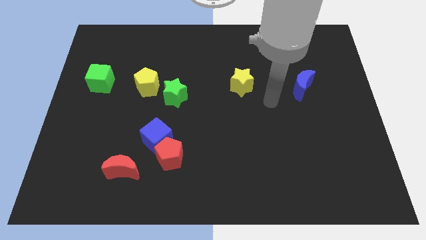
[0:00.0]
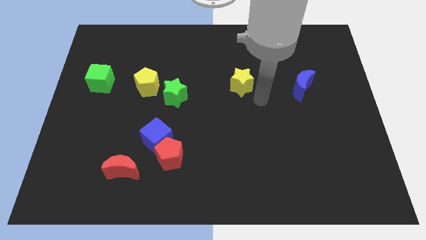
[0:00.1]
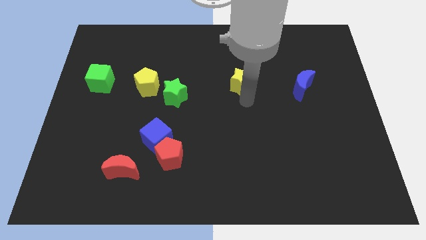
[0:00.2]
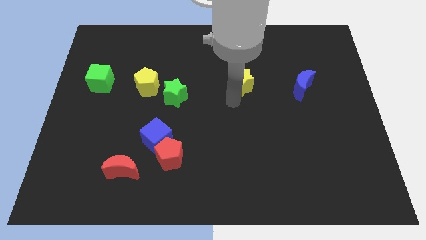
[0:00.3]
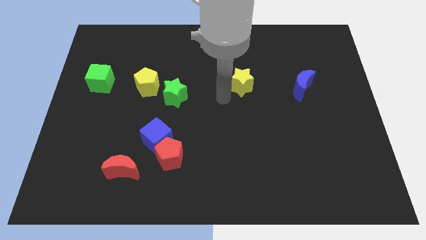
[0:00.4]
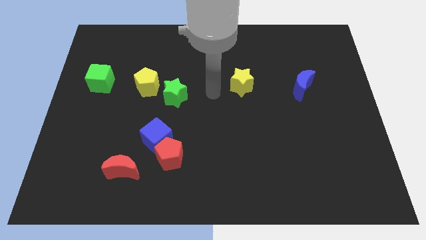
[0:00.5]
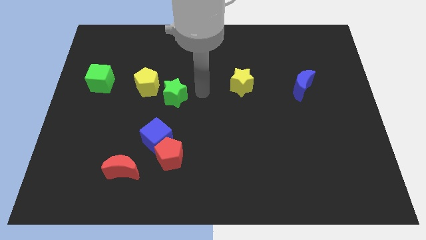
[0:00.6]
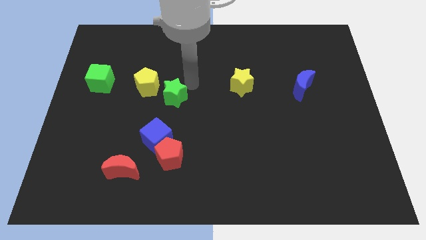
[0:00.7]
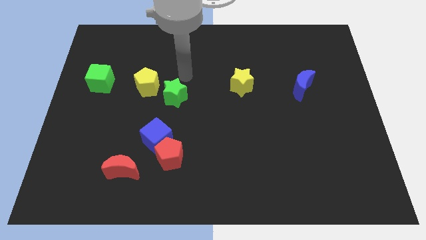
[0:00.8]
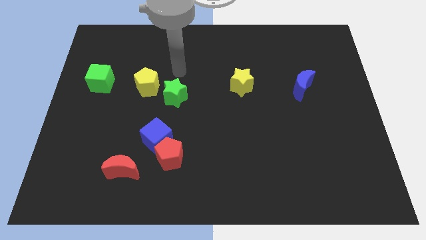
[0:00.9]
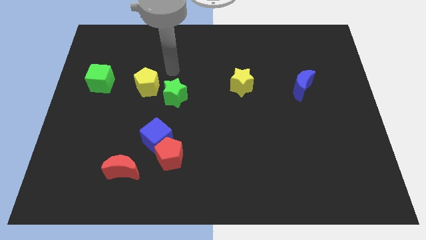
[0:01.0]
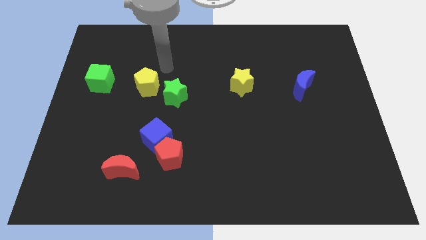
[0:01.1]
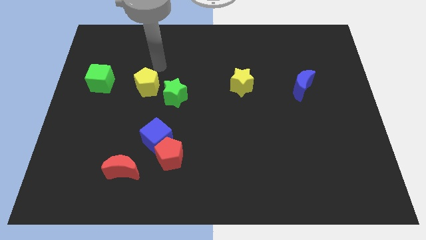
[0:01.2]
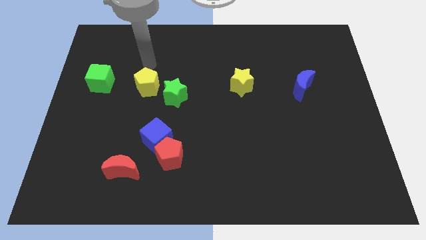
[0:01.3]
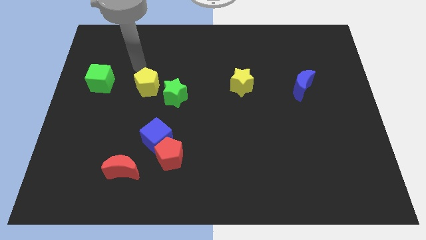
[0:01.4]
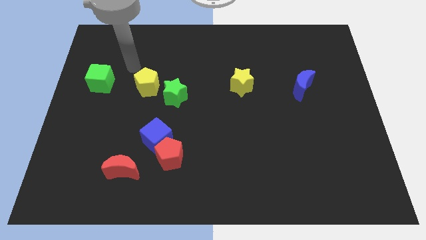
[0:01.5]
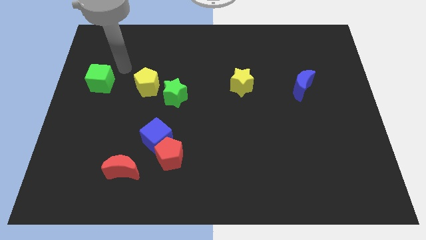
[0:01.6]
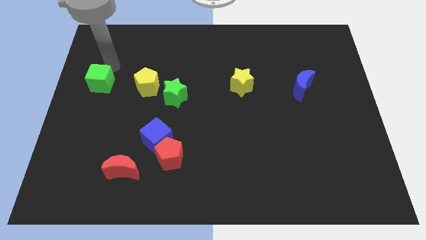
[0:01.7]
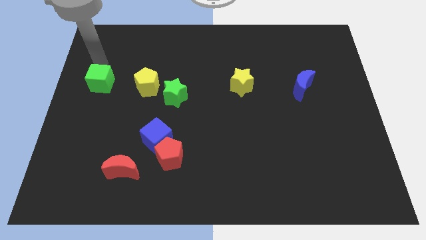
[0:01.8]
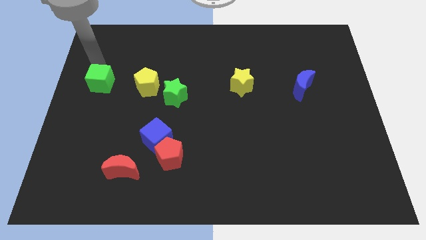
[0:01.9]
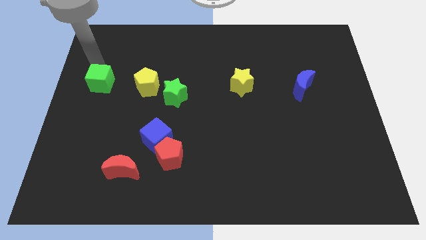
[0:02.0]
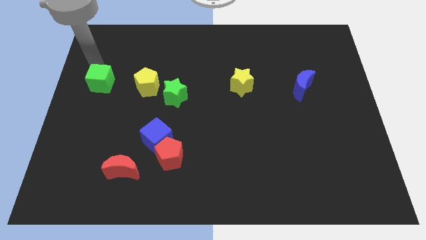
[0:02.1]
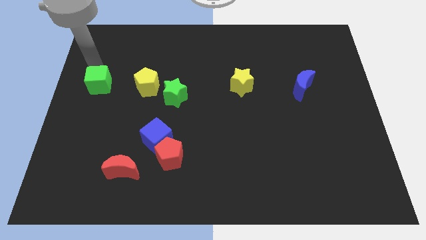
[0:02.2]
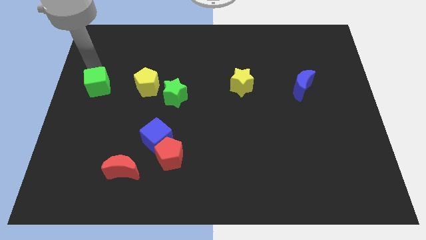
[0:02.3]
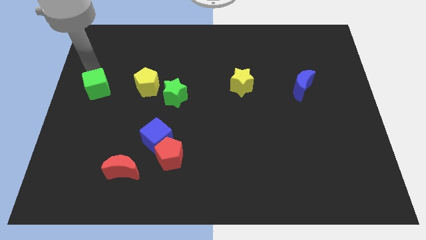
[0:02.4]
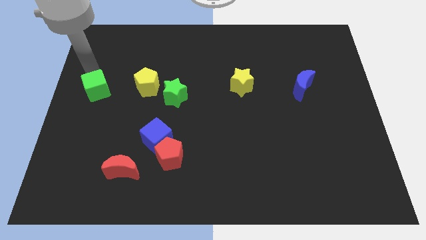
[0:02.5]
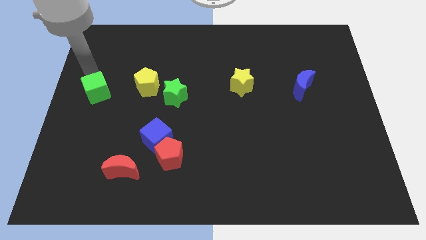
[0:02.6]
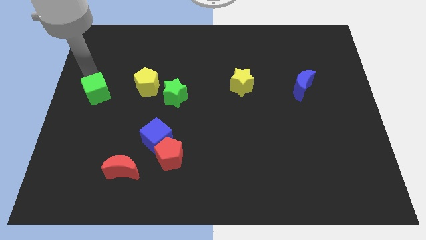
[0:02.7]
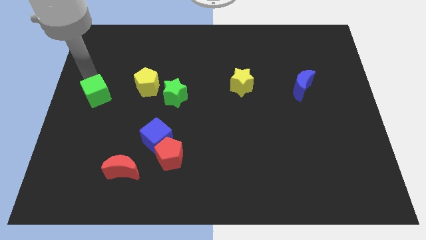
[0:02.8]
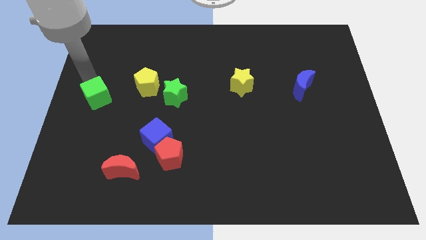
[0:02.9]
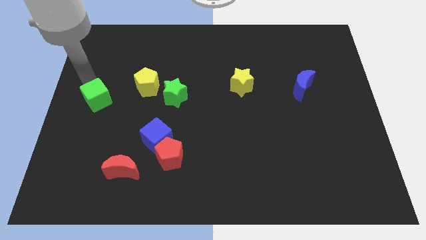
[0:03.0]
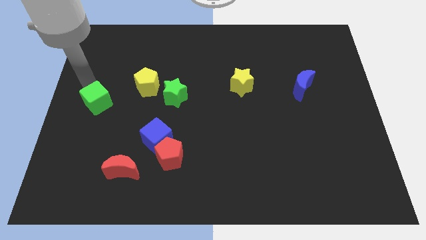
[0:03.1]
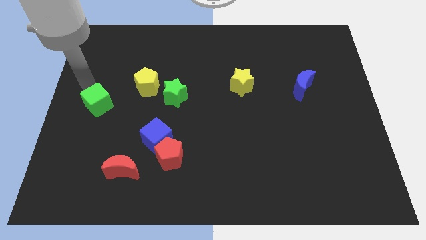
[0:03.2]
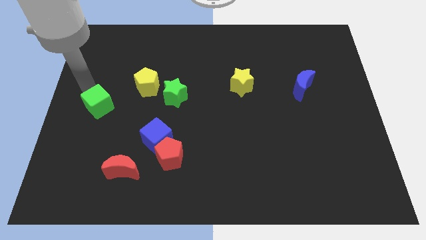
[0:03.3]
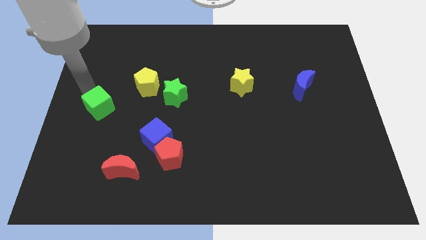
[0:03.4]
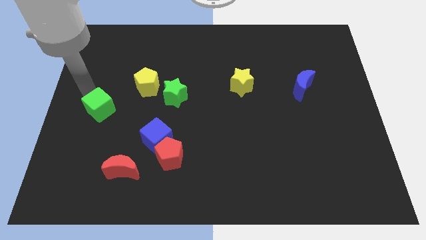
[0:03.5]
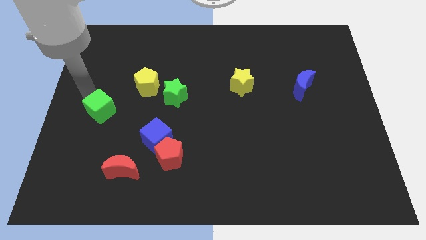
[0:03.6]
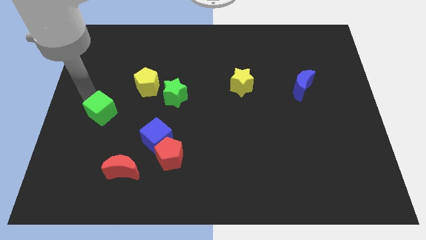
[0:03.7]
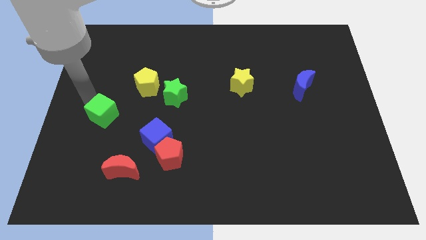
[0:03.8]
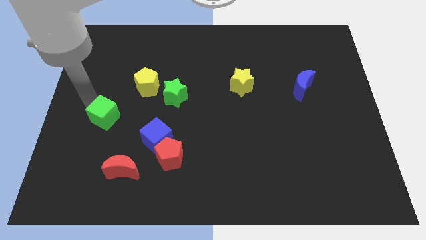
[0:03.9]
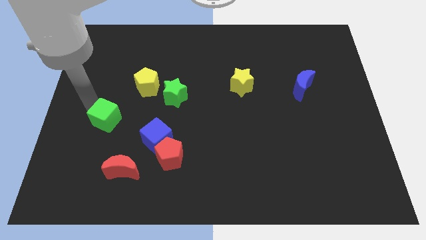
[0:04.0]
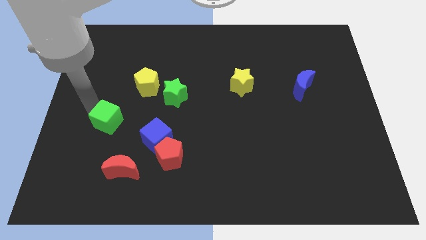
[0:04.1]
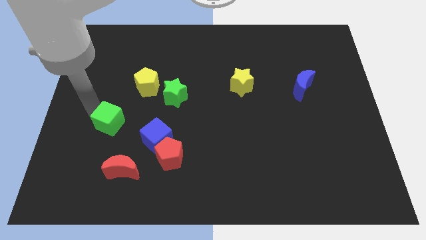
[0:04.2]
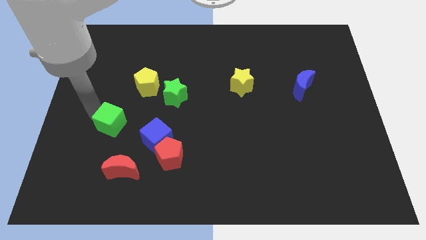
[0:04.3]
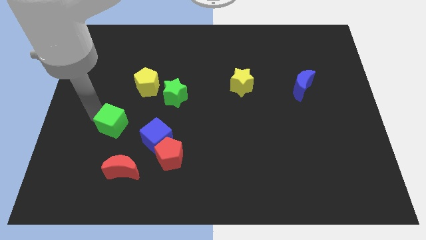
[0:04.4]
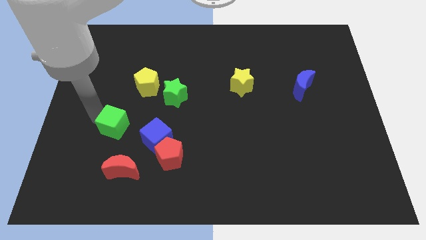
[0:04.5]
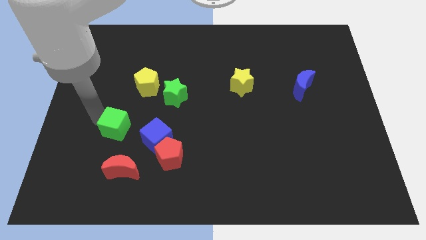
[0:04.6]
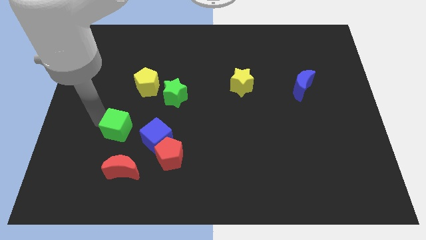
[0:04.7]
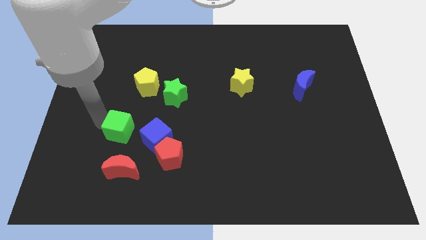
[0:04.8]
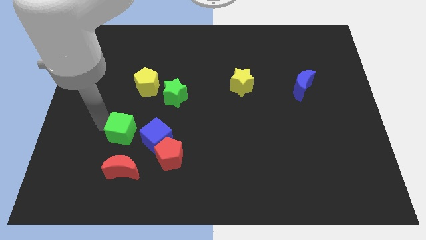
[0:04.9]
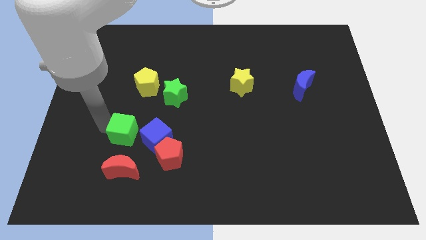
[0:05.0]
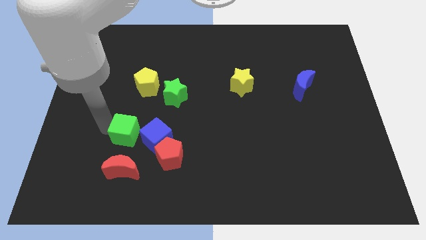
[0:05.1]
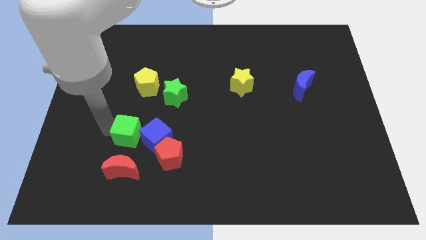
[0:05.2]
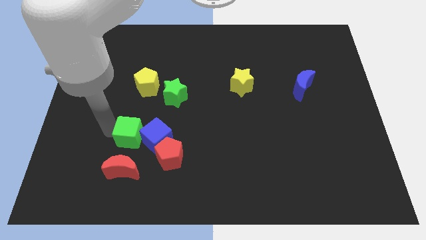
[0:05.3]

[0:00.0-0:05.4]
slide the green cube next to the blue cube

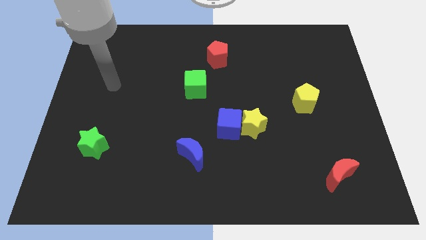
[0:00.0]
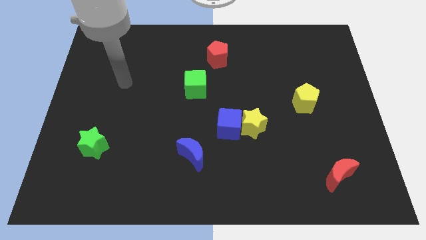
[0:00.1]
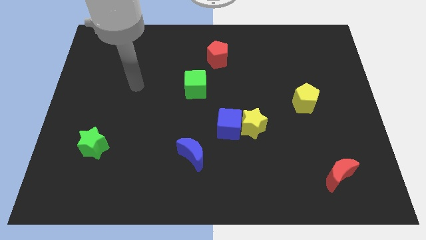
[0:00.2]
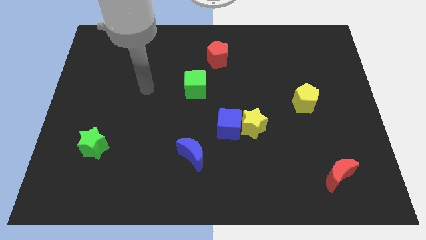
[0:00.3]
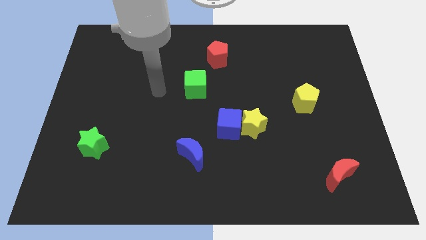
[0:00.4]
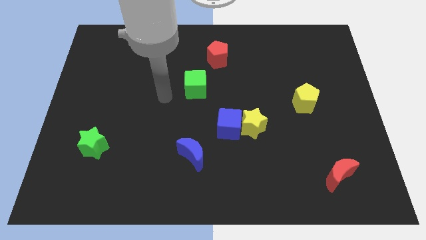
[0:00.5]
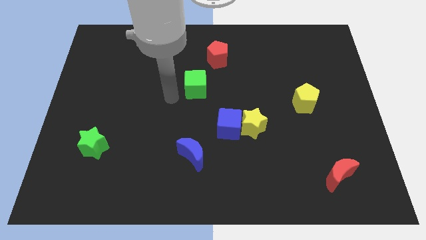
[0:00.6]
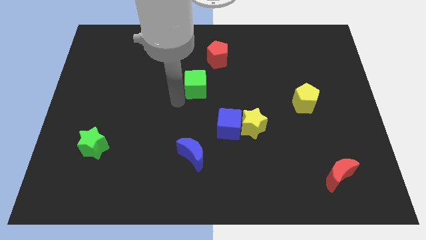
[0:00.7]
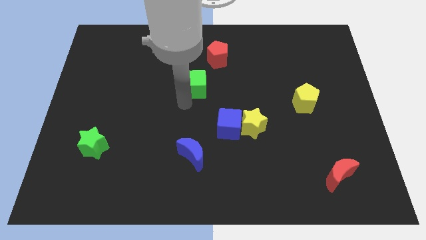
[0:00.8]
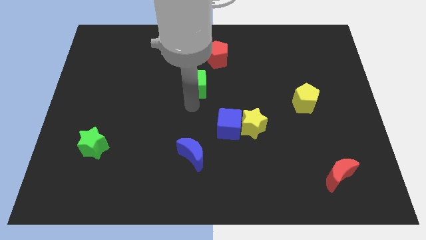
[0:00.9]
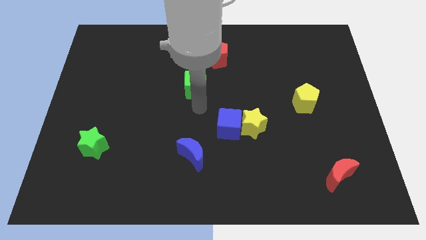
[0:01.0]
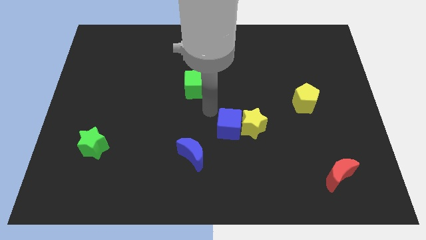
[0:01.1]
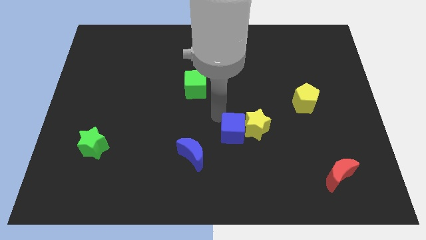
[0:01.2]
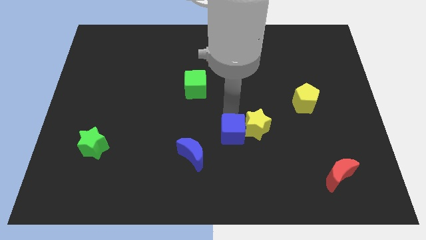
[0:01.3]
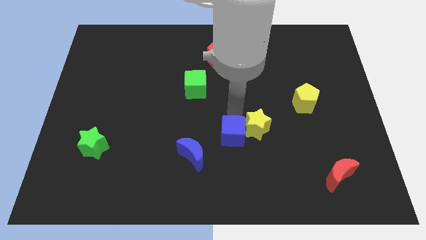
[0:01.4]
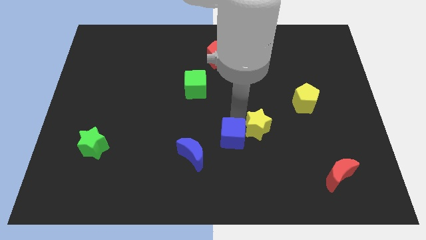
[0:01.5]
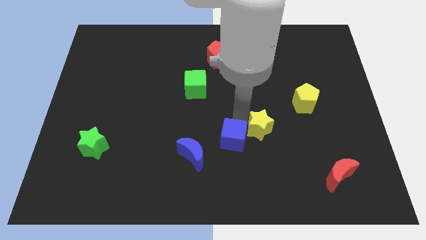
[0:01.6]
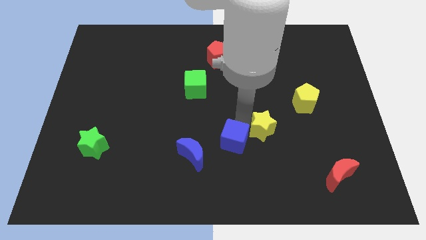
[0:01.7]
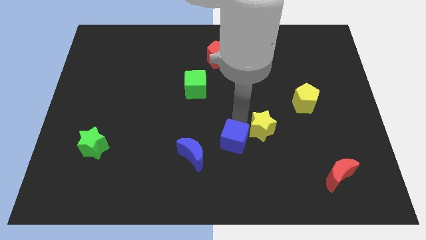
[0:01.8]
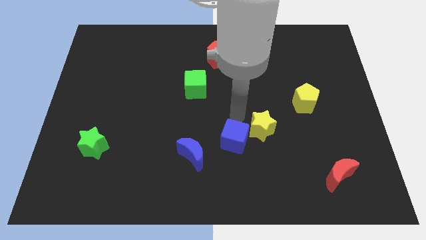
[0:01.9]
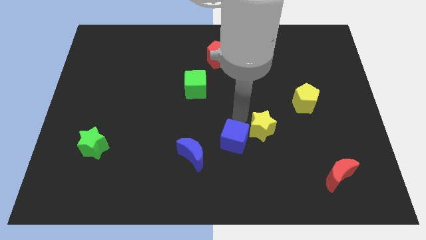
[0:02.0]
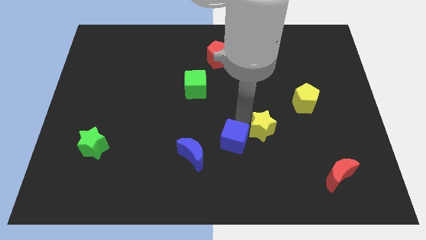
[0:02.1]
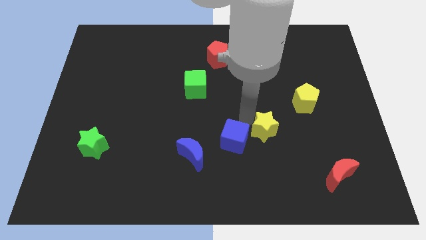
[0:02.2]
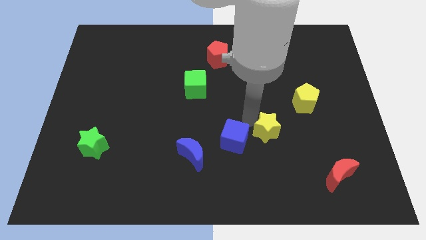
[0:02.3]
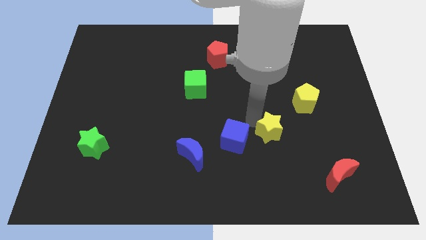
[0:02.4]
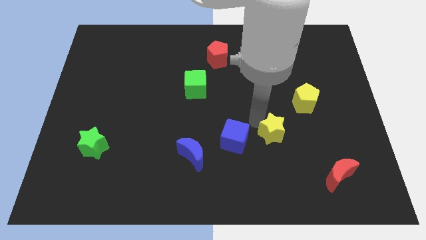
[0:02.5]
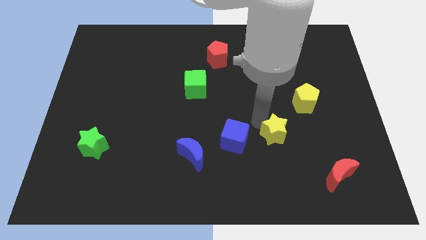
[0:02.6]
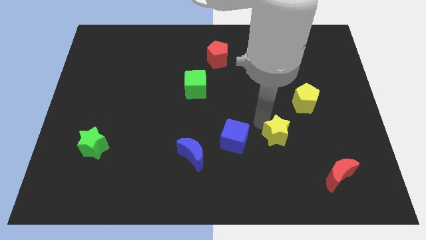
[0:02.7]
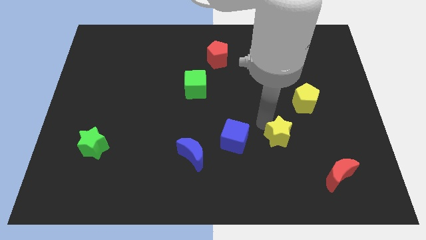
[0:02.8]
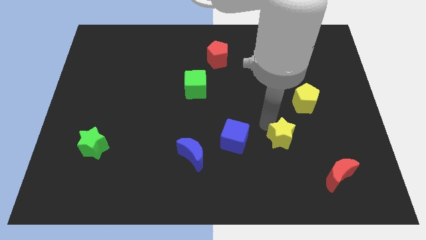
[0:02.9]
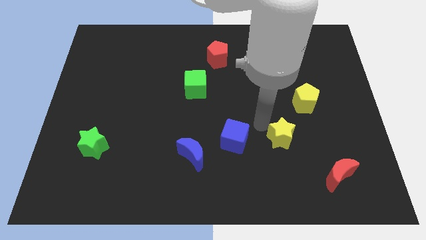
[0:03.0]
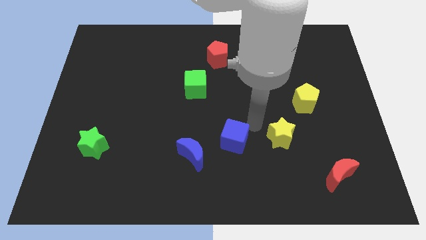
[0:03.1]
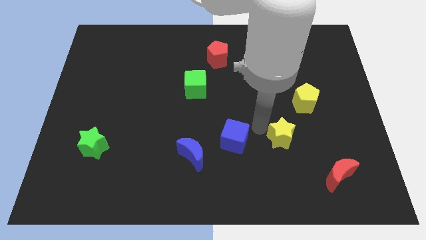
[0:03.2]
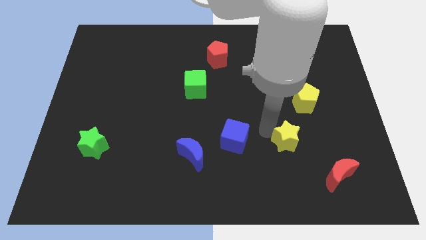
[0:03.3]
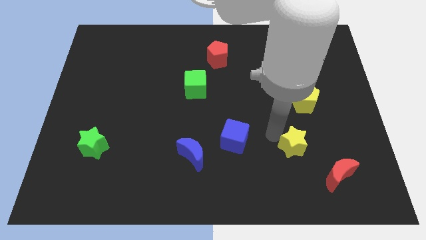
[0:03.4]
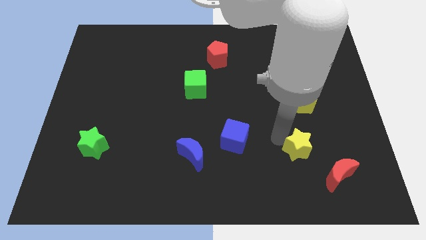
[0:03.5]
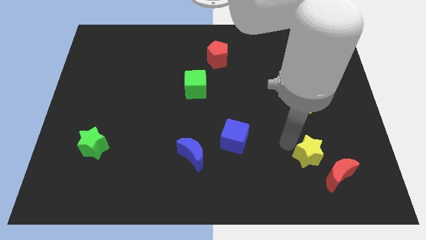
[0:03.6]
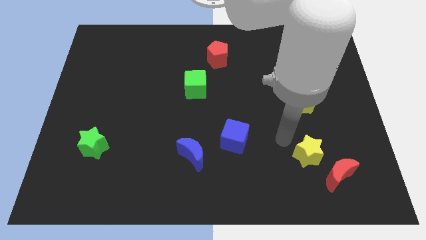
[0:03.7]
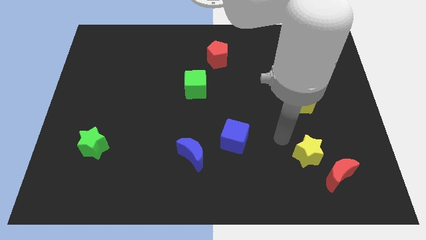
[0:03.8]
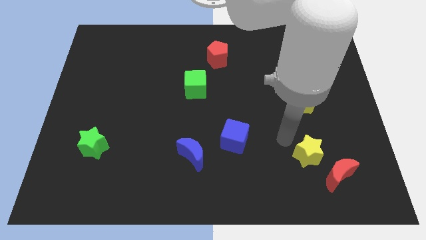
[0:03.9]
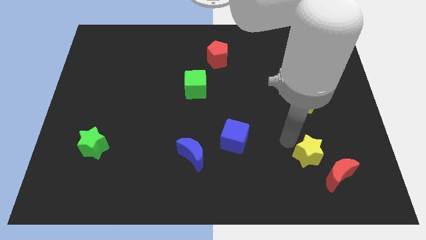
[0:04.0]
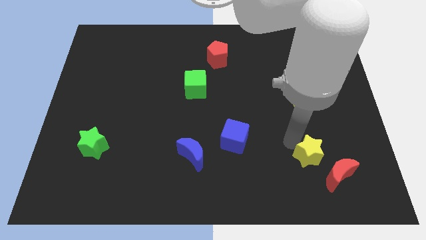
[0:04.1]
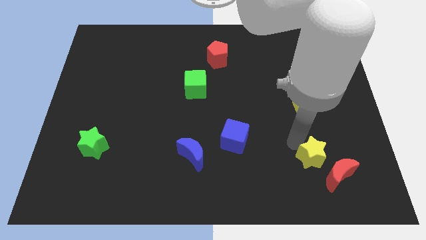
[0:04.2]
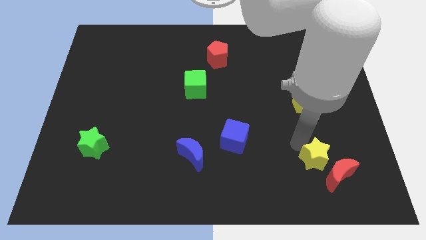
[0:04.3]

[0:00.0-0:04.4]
put the yellow star next to the red moon
